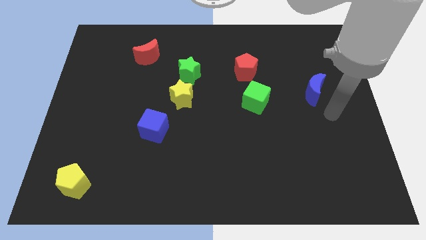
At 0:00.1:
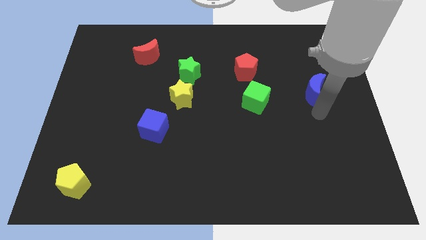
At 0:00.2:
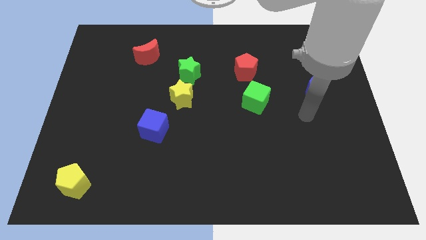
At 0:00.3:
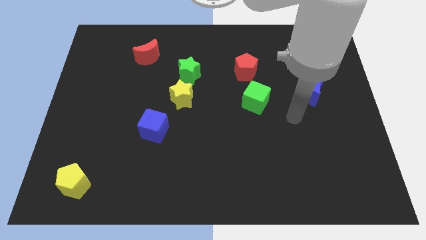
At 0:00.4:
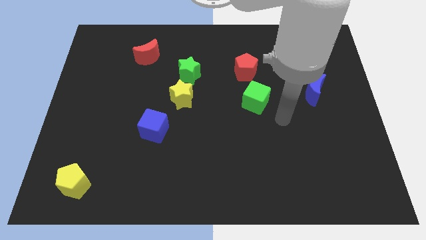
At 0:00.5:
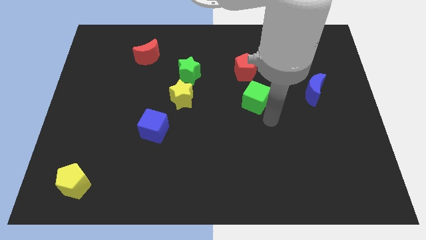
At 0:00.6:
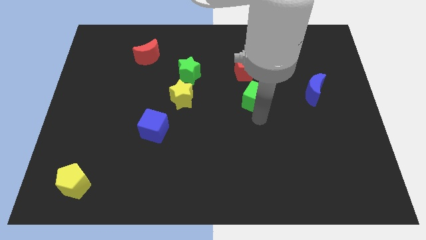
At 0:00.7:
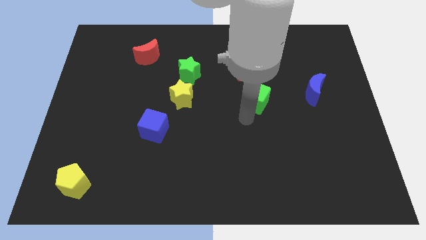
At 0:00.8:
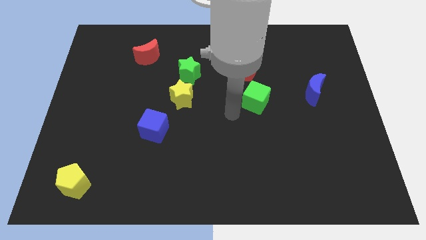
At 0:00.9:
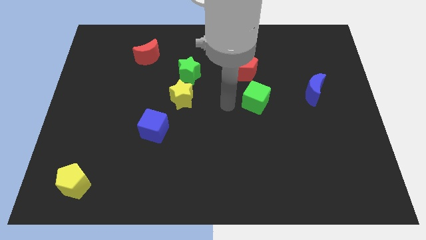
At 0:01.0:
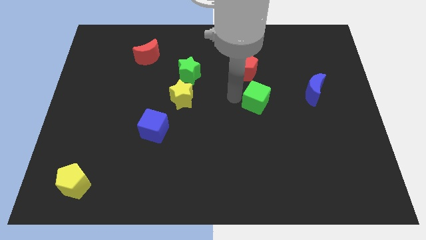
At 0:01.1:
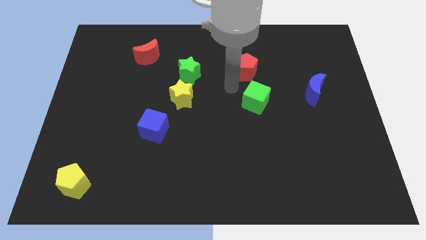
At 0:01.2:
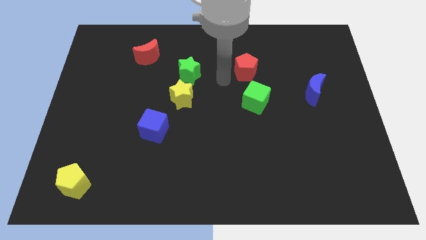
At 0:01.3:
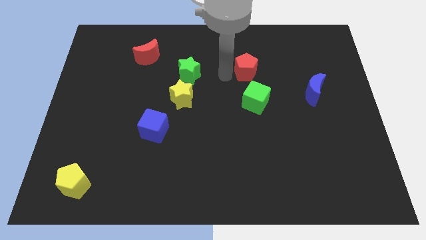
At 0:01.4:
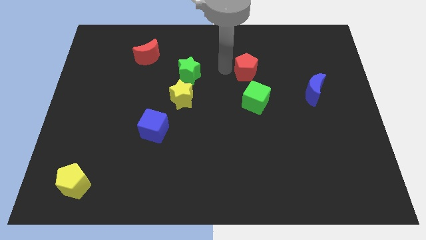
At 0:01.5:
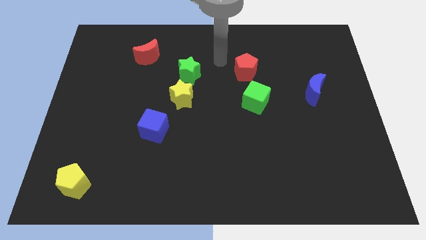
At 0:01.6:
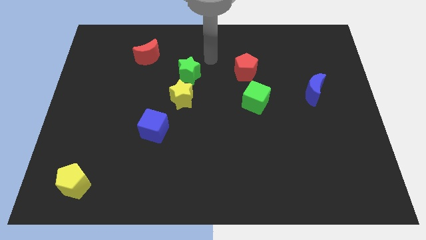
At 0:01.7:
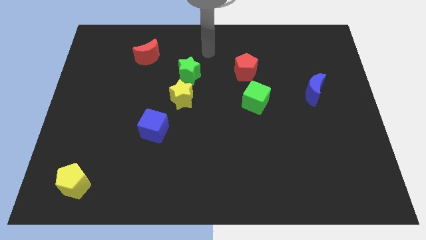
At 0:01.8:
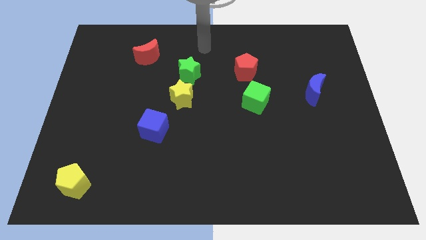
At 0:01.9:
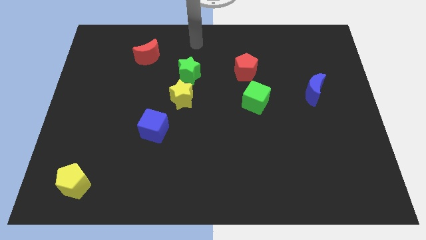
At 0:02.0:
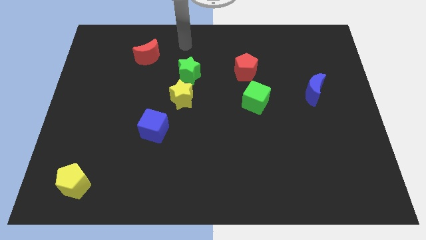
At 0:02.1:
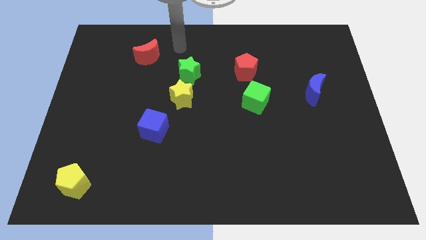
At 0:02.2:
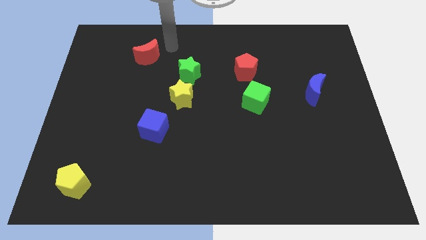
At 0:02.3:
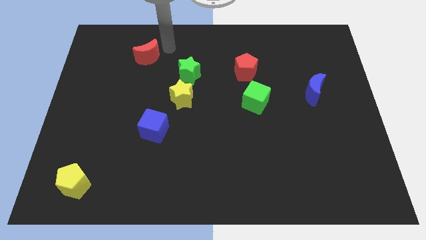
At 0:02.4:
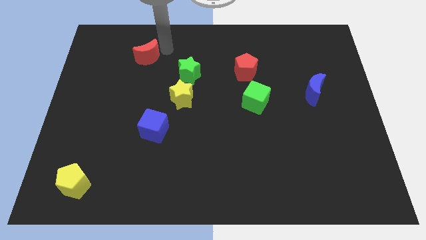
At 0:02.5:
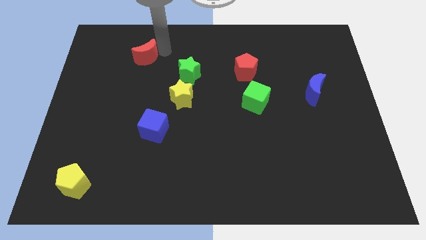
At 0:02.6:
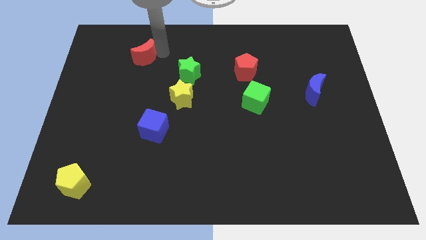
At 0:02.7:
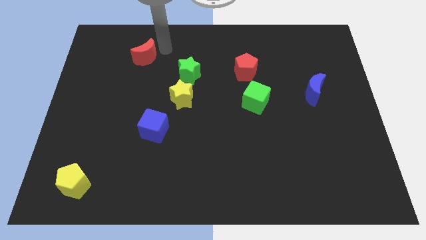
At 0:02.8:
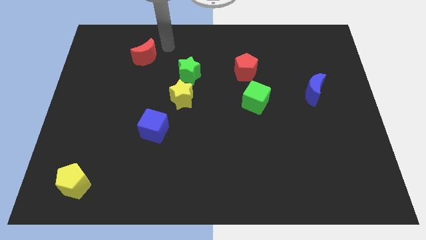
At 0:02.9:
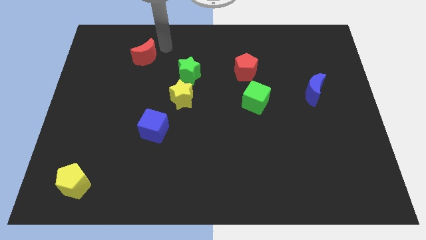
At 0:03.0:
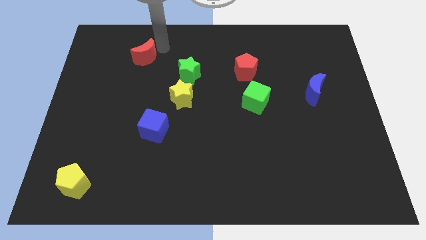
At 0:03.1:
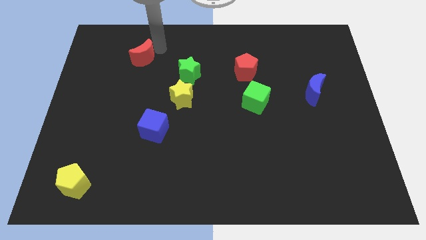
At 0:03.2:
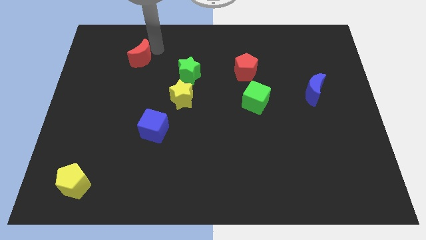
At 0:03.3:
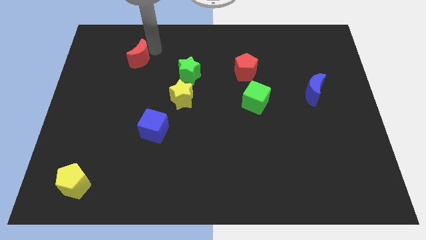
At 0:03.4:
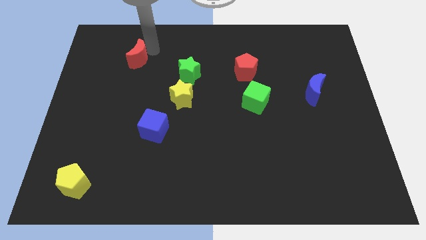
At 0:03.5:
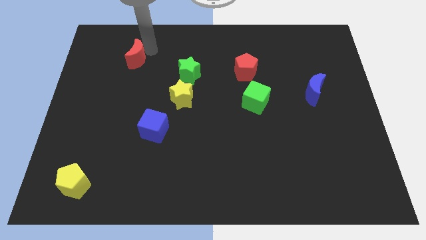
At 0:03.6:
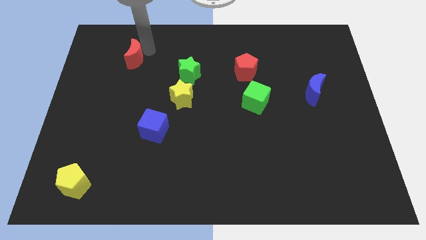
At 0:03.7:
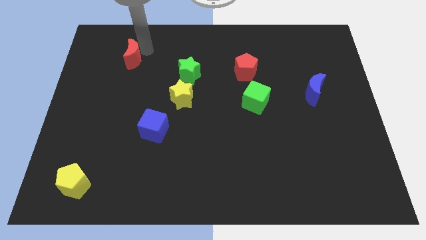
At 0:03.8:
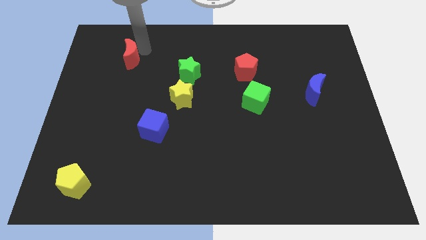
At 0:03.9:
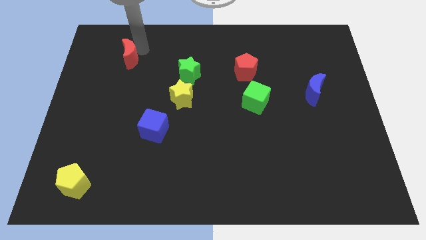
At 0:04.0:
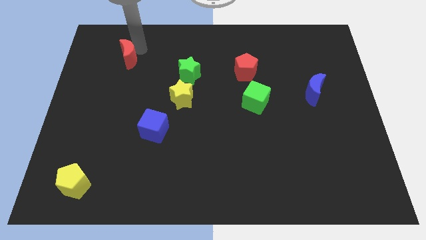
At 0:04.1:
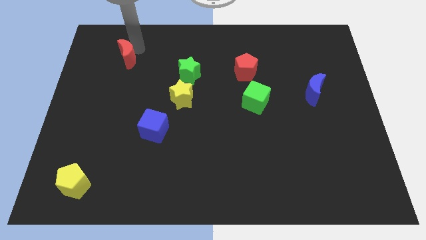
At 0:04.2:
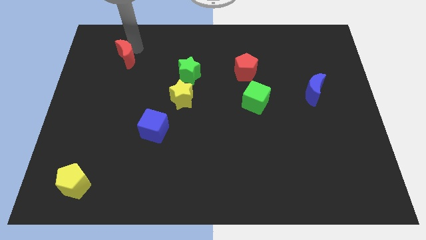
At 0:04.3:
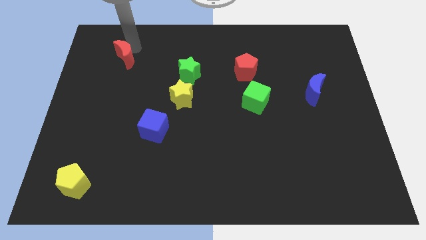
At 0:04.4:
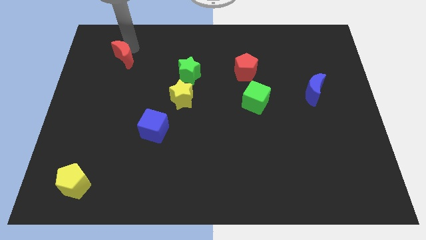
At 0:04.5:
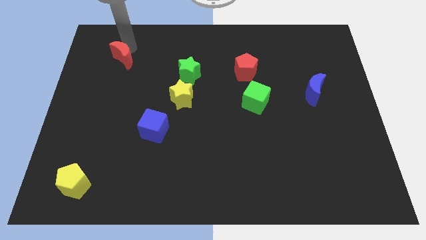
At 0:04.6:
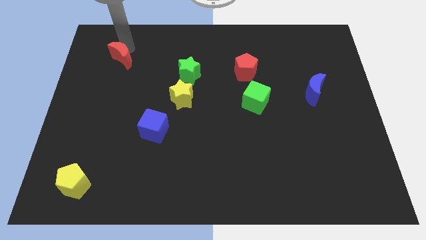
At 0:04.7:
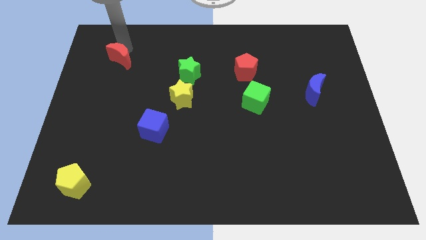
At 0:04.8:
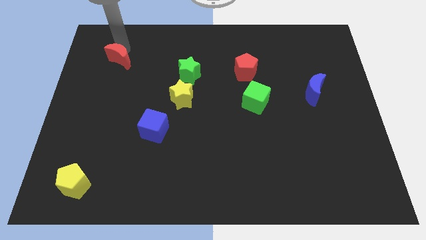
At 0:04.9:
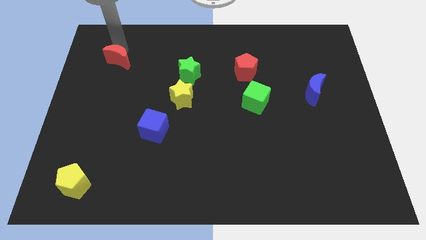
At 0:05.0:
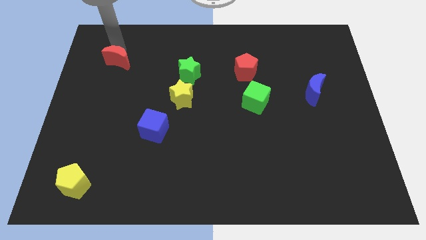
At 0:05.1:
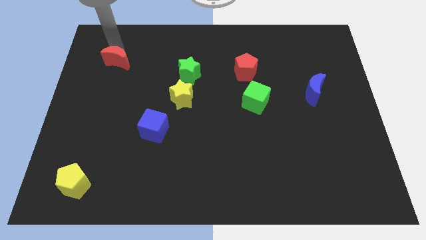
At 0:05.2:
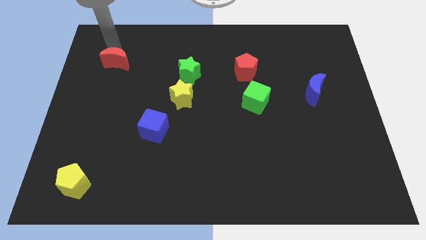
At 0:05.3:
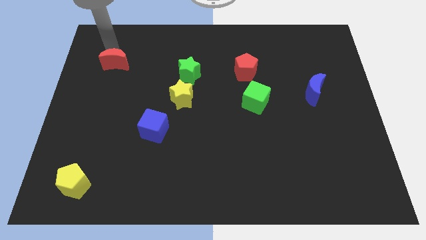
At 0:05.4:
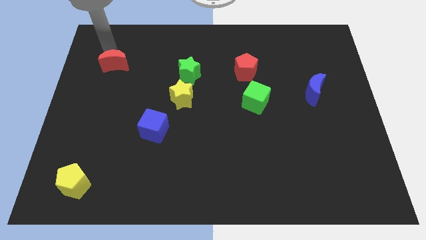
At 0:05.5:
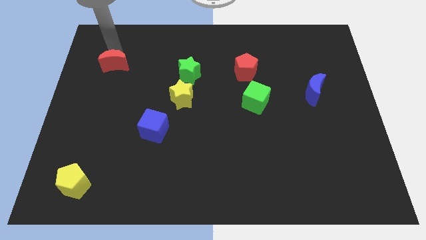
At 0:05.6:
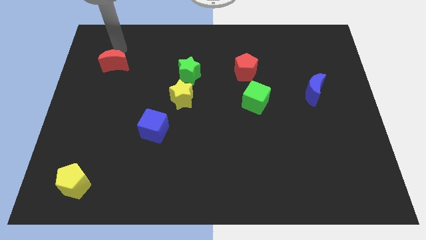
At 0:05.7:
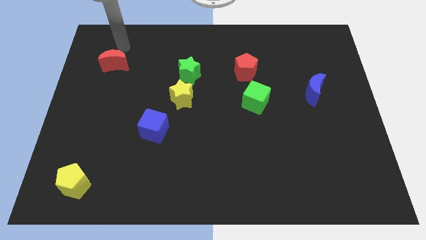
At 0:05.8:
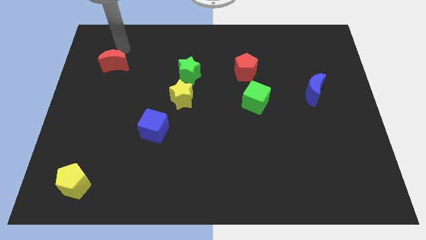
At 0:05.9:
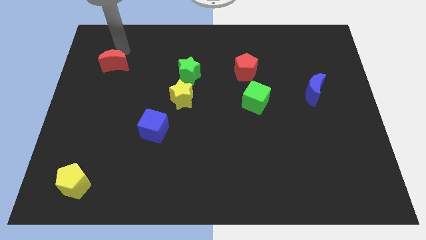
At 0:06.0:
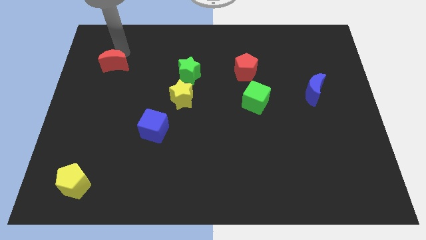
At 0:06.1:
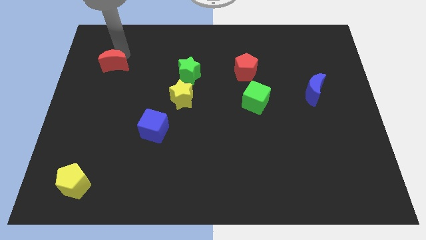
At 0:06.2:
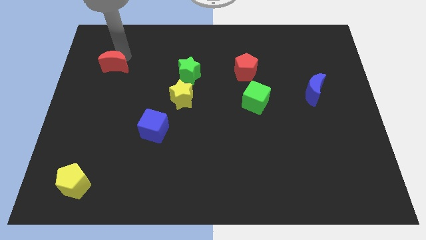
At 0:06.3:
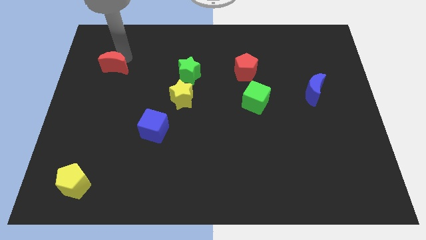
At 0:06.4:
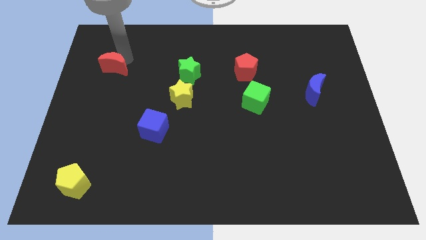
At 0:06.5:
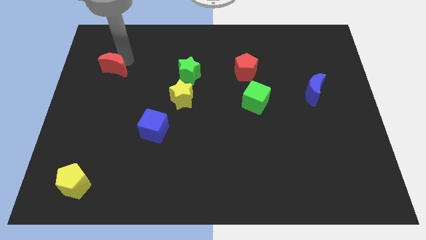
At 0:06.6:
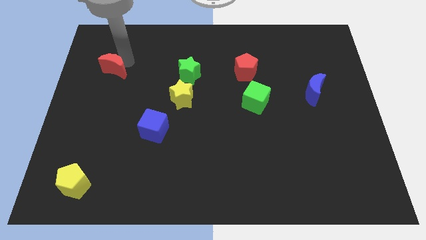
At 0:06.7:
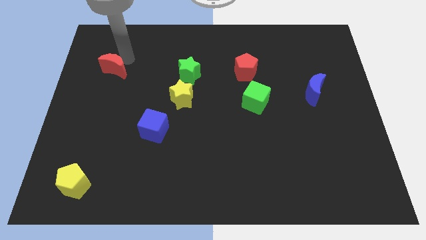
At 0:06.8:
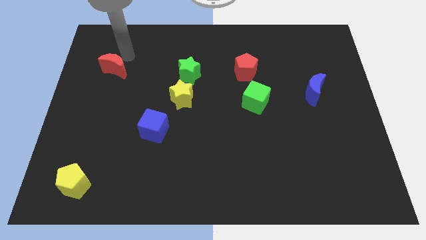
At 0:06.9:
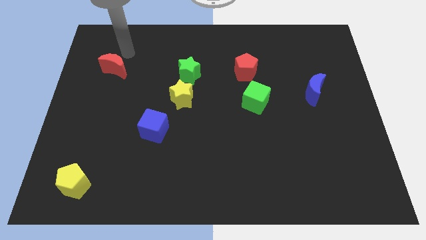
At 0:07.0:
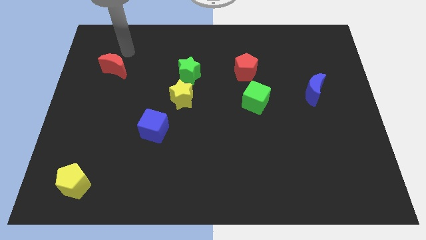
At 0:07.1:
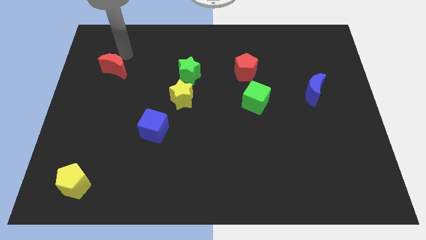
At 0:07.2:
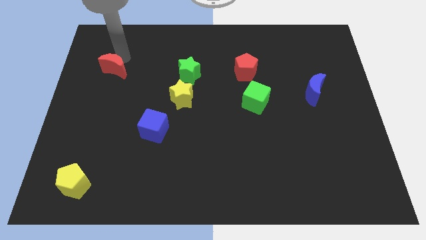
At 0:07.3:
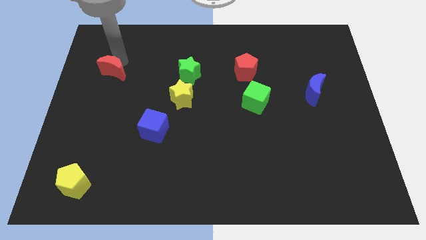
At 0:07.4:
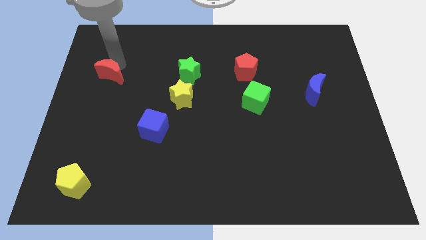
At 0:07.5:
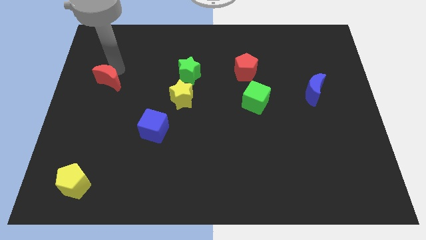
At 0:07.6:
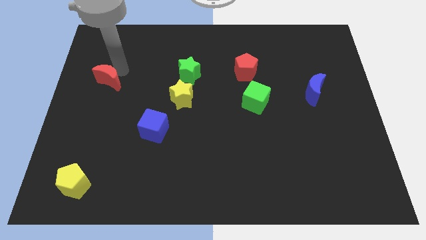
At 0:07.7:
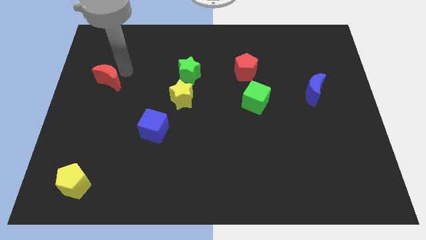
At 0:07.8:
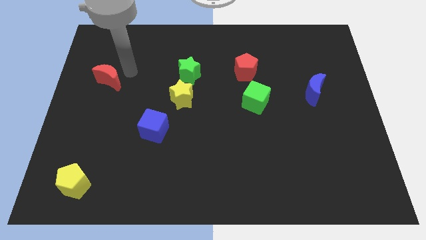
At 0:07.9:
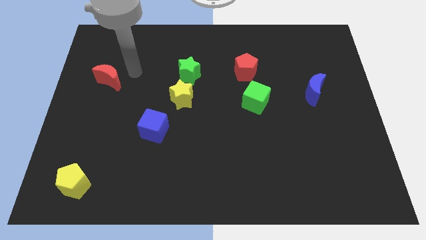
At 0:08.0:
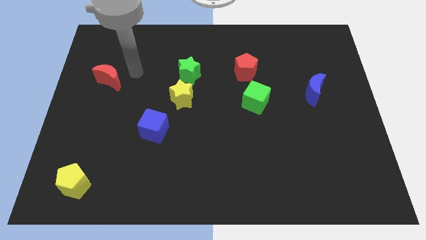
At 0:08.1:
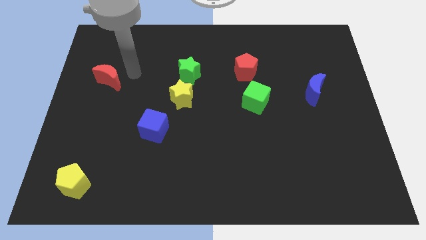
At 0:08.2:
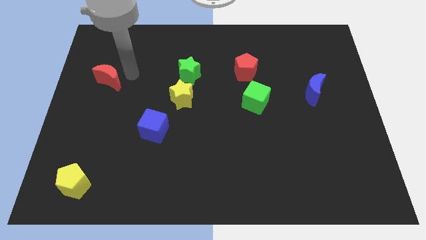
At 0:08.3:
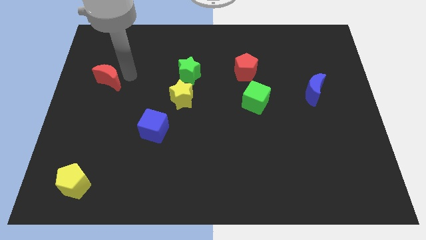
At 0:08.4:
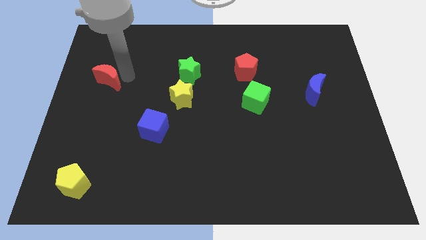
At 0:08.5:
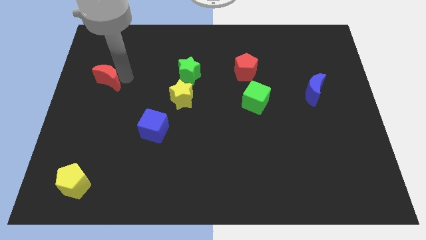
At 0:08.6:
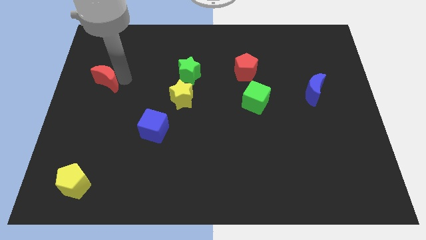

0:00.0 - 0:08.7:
put the red moon to the left side
